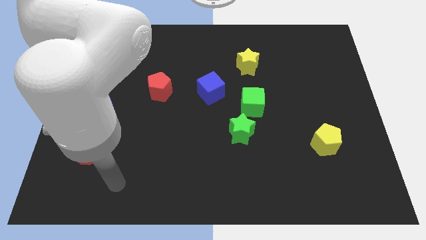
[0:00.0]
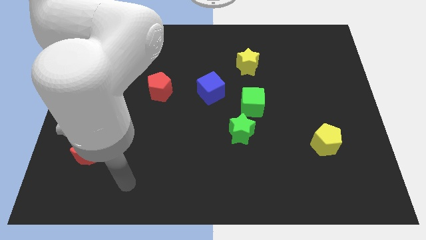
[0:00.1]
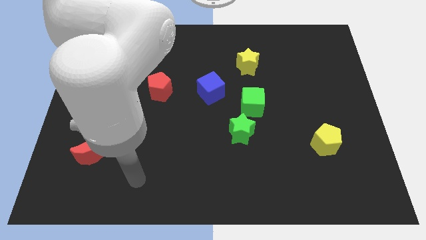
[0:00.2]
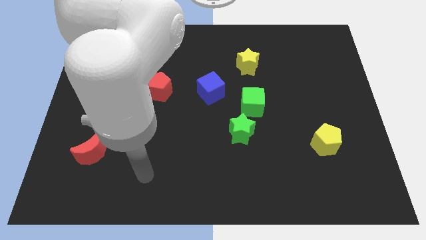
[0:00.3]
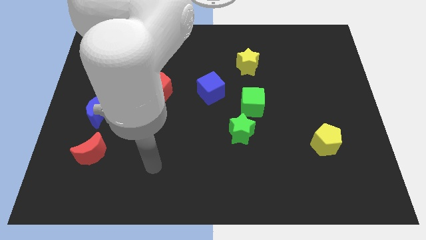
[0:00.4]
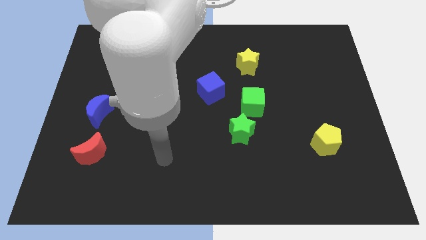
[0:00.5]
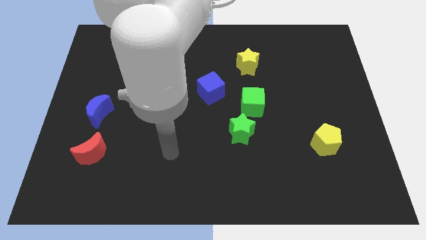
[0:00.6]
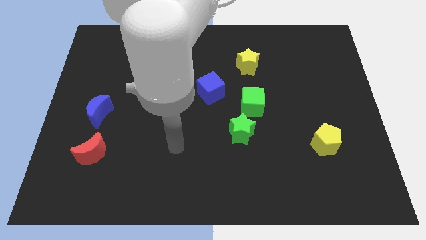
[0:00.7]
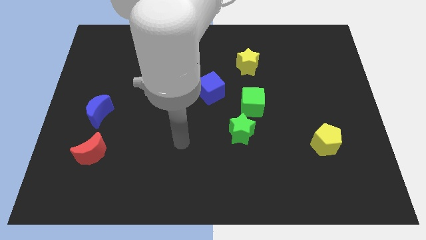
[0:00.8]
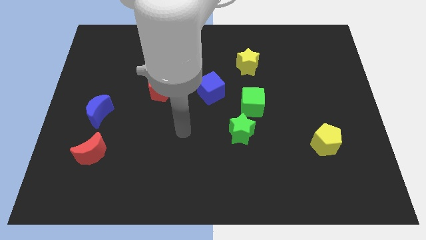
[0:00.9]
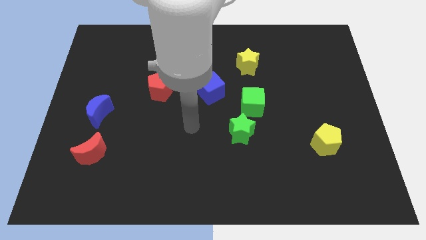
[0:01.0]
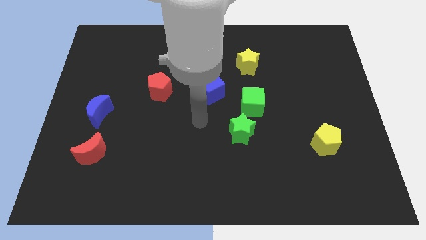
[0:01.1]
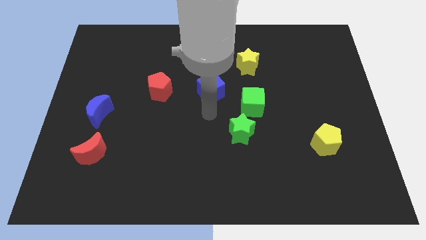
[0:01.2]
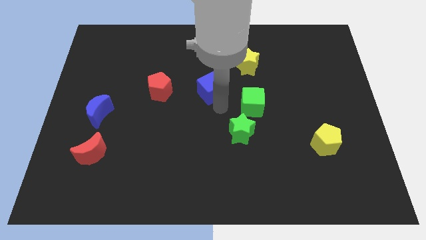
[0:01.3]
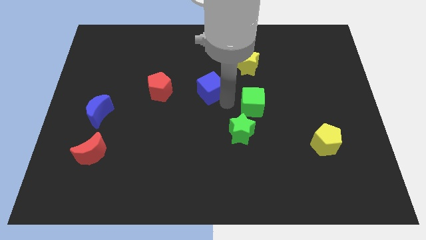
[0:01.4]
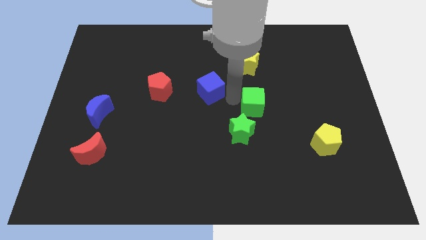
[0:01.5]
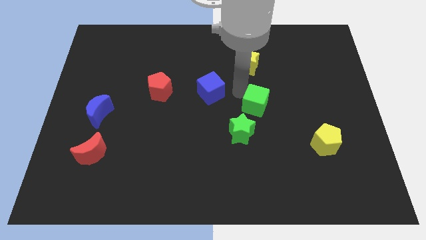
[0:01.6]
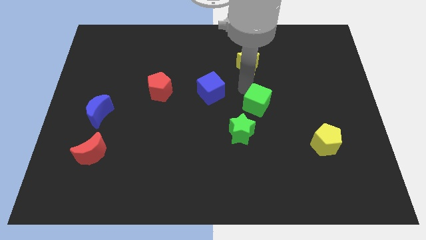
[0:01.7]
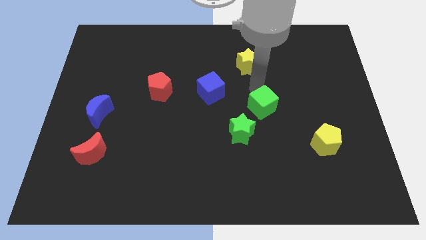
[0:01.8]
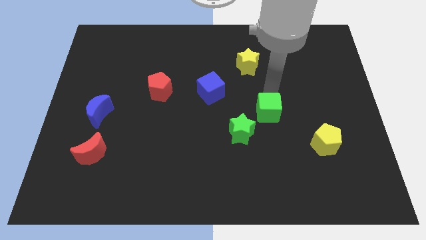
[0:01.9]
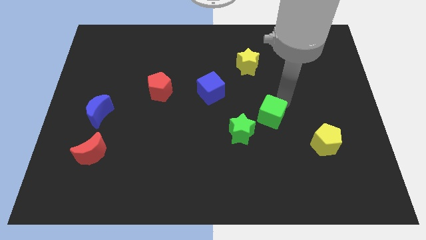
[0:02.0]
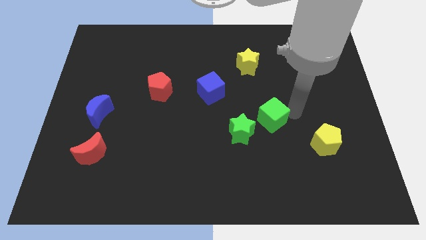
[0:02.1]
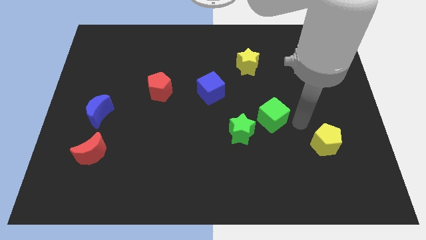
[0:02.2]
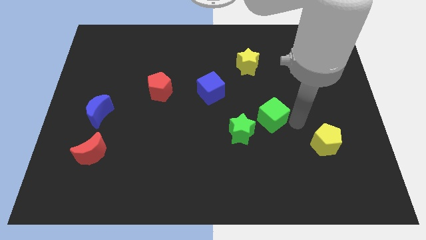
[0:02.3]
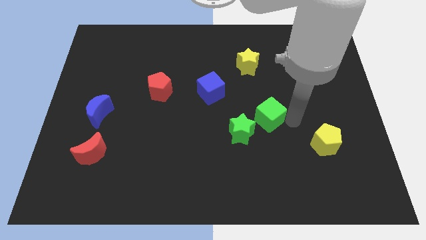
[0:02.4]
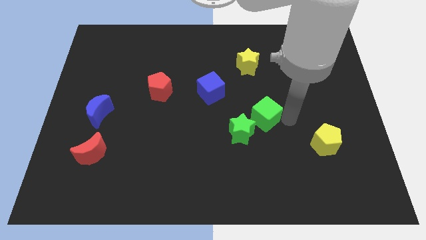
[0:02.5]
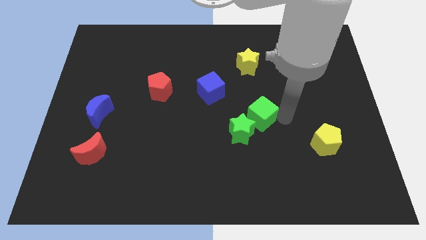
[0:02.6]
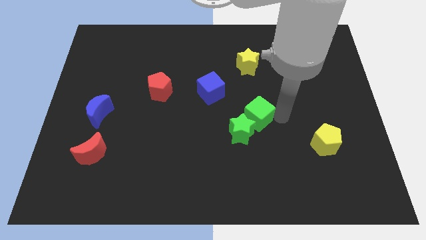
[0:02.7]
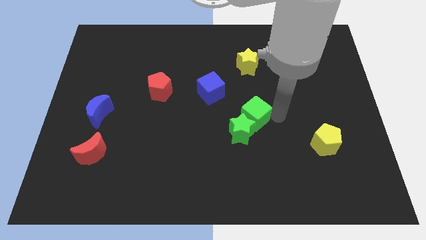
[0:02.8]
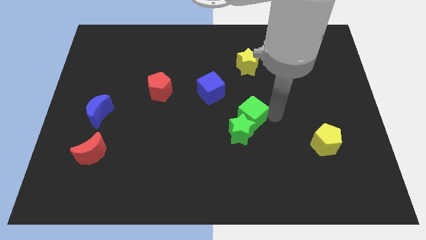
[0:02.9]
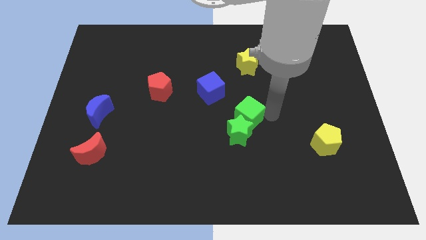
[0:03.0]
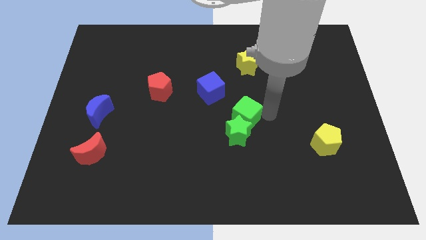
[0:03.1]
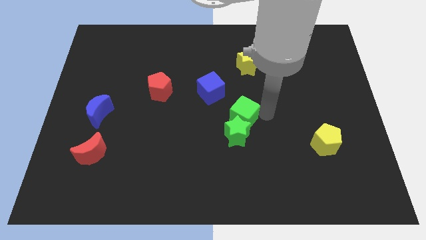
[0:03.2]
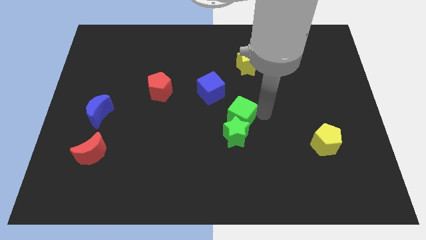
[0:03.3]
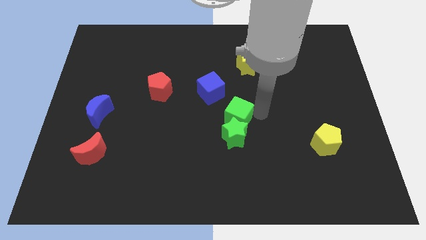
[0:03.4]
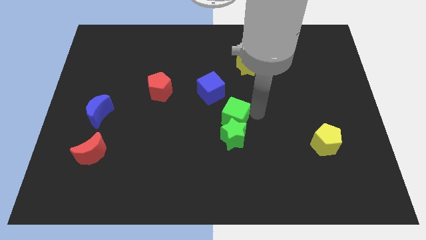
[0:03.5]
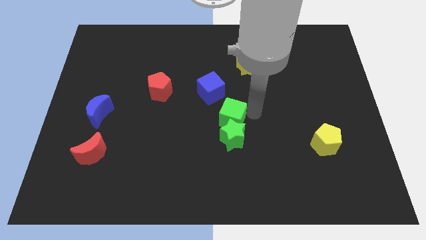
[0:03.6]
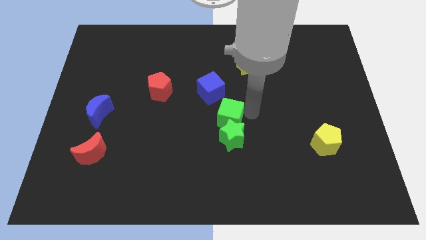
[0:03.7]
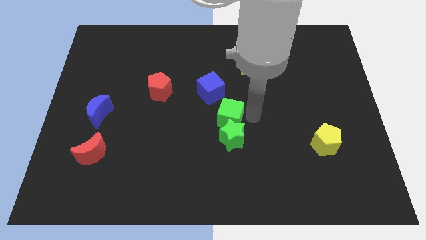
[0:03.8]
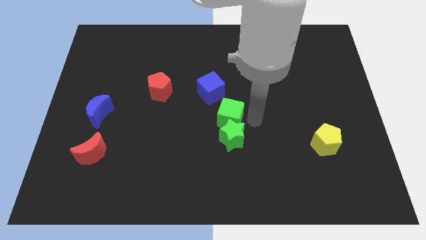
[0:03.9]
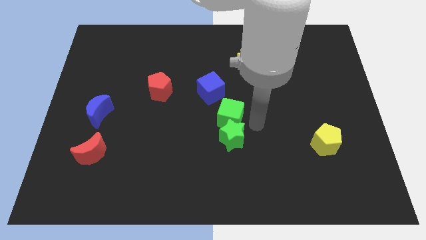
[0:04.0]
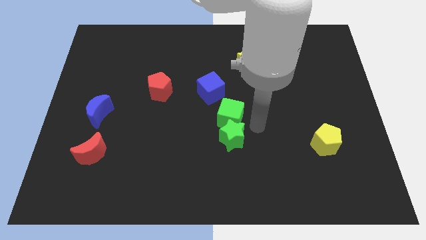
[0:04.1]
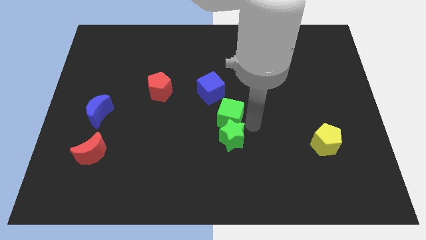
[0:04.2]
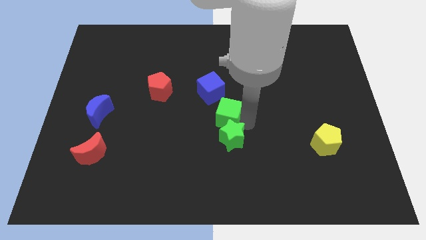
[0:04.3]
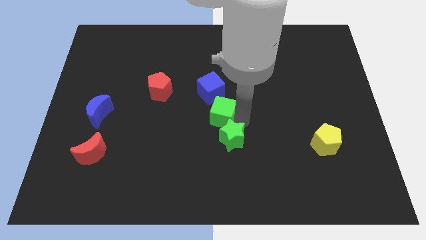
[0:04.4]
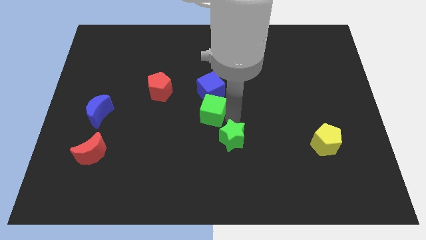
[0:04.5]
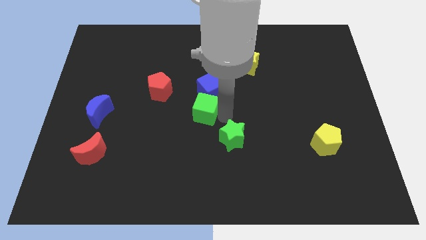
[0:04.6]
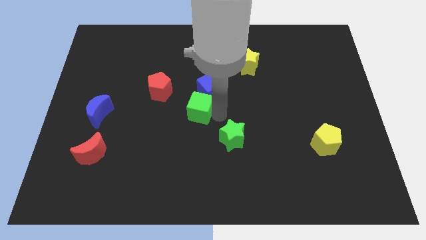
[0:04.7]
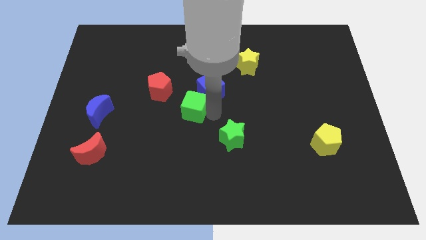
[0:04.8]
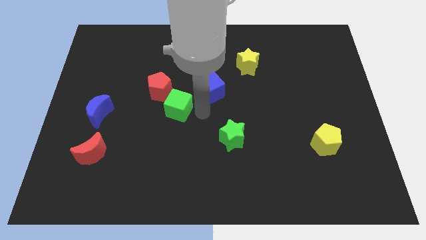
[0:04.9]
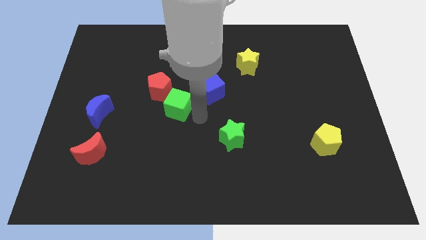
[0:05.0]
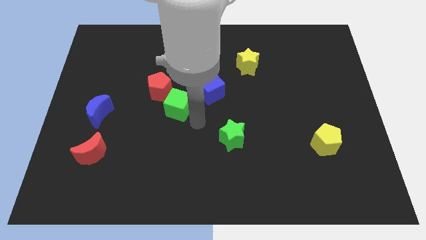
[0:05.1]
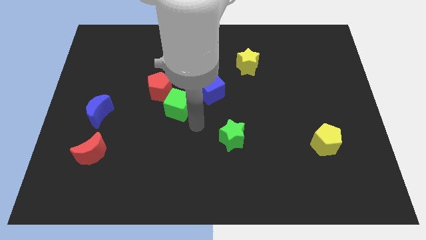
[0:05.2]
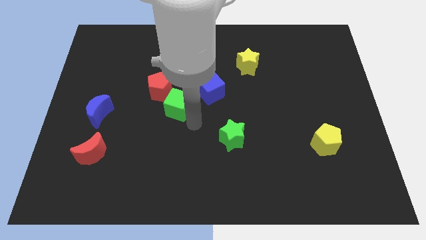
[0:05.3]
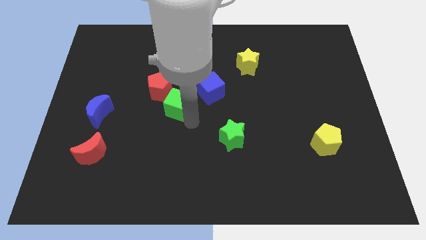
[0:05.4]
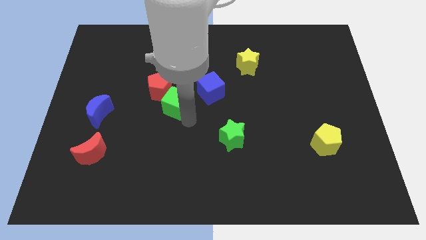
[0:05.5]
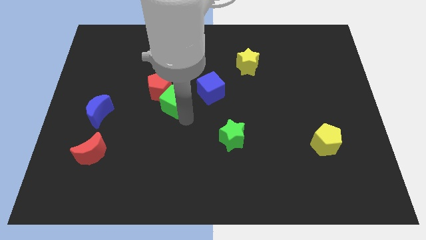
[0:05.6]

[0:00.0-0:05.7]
put the green cube next to the red pentagon

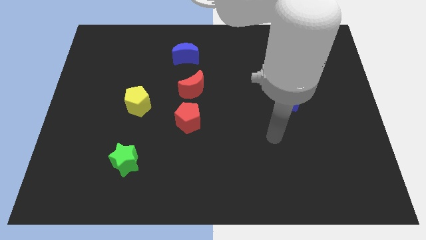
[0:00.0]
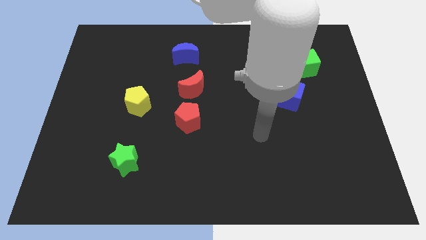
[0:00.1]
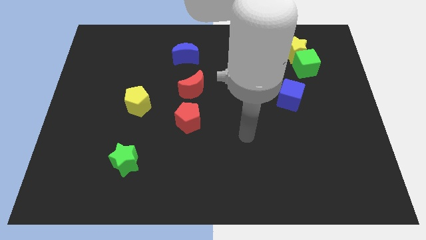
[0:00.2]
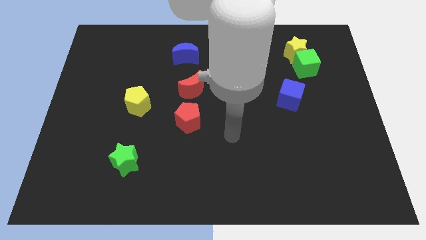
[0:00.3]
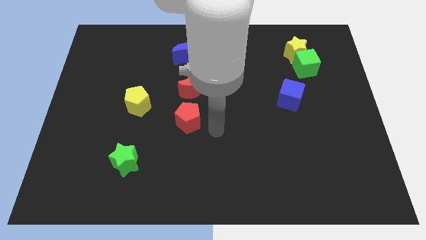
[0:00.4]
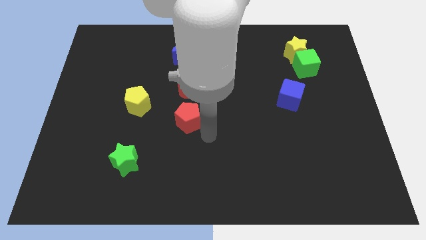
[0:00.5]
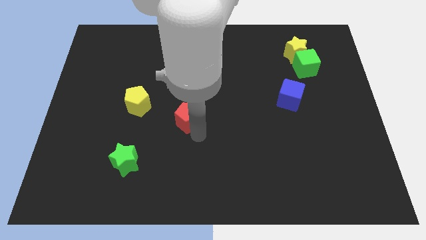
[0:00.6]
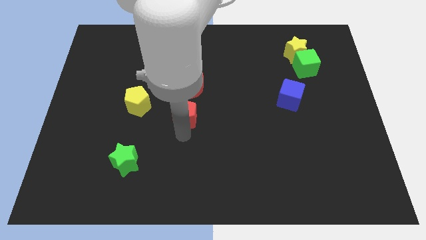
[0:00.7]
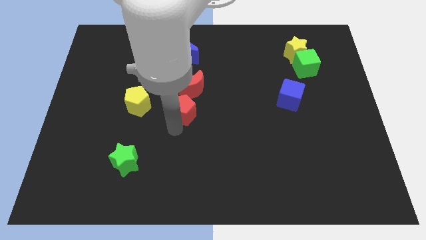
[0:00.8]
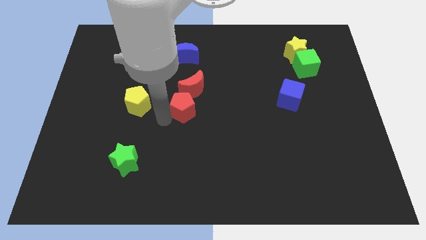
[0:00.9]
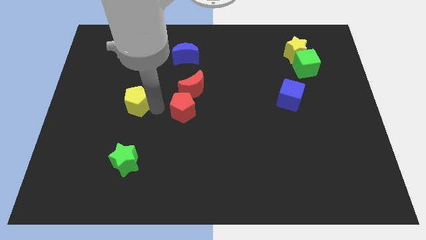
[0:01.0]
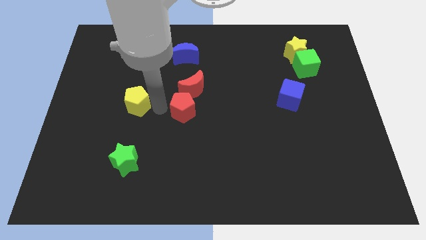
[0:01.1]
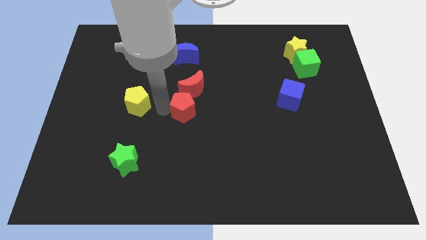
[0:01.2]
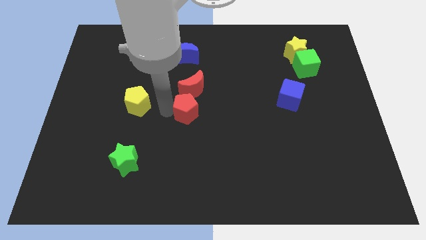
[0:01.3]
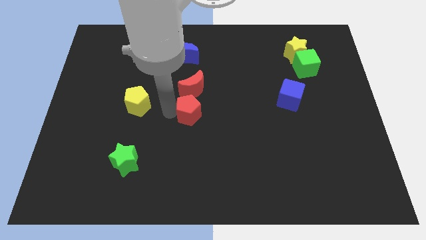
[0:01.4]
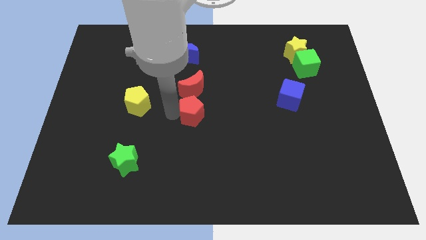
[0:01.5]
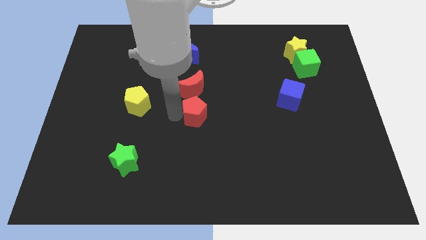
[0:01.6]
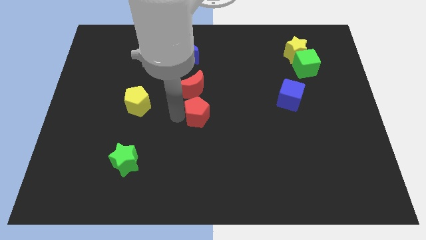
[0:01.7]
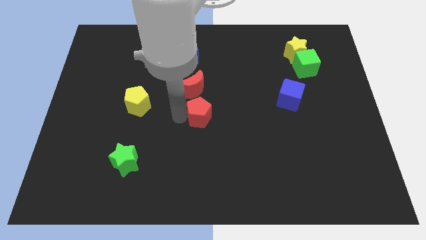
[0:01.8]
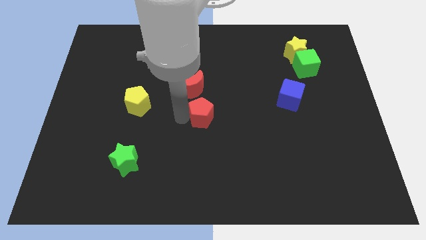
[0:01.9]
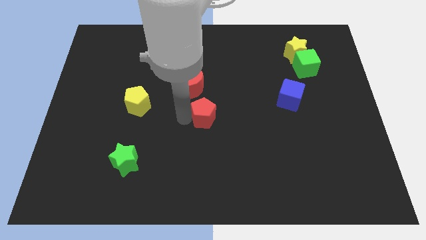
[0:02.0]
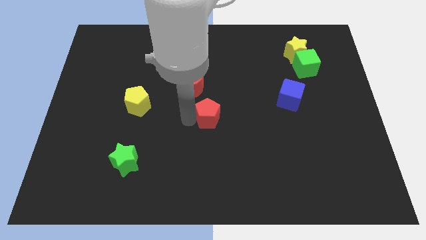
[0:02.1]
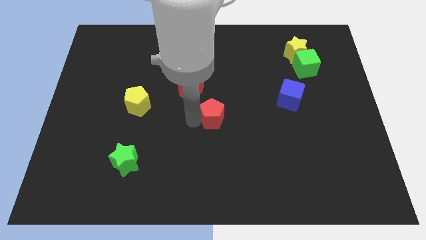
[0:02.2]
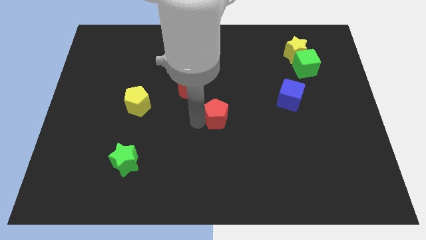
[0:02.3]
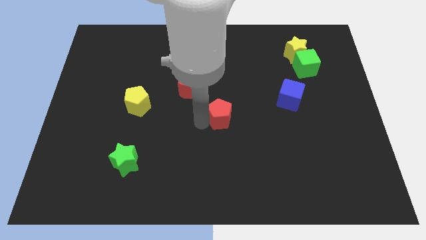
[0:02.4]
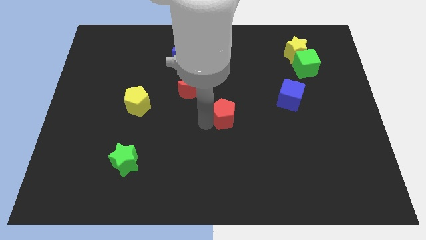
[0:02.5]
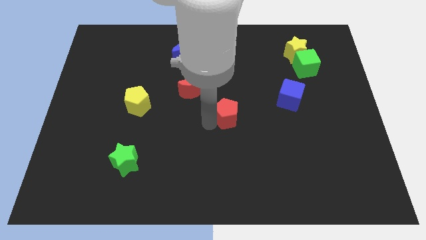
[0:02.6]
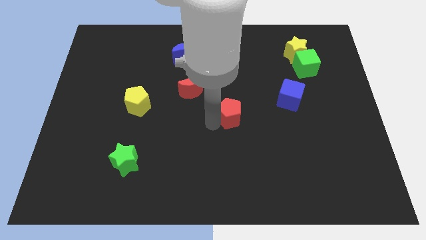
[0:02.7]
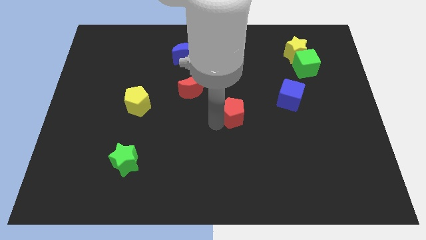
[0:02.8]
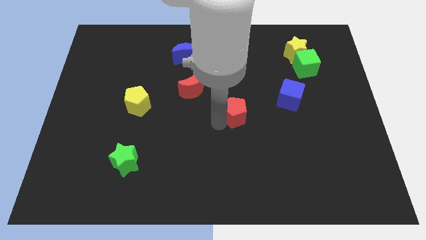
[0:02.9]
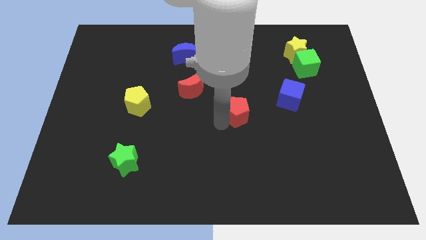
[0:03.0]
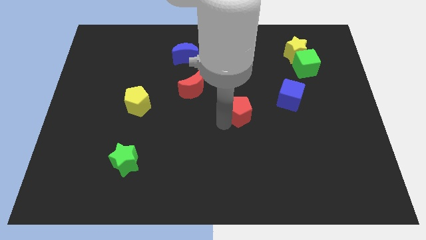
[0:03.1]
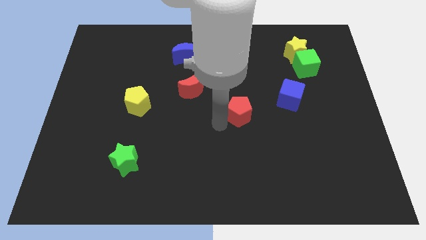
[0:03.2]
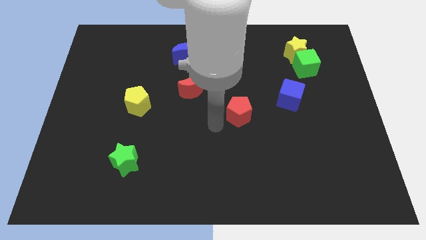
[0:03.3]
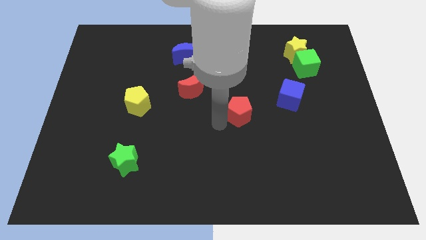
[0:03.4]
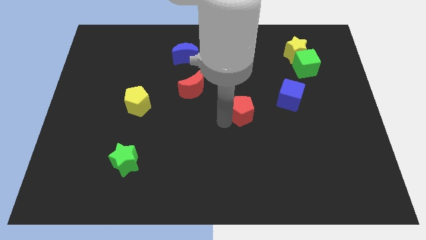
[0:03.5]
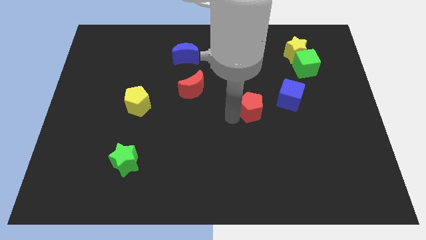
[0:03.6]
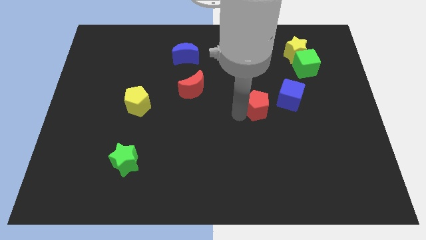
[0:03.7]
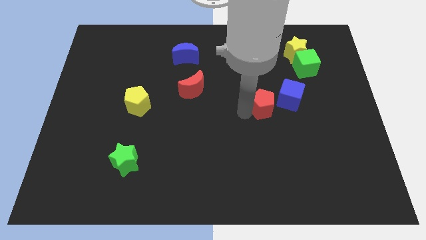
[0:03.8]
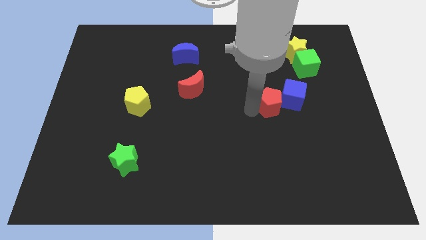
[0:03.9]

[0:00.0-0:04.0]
slide the red pentagon close to the blue cube
